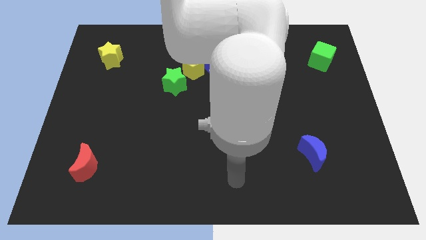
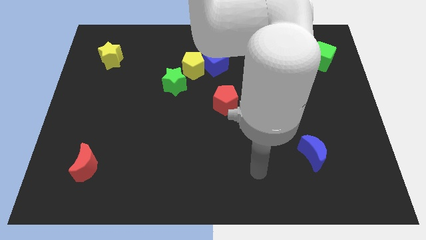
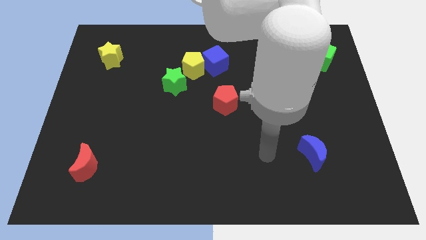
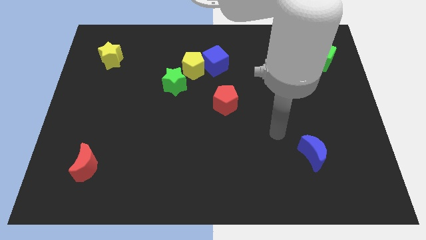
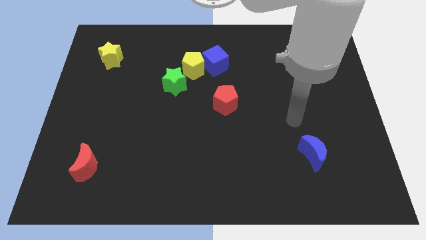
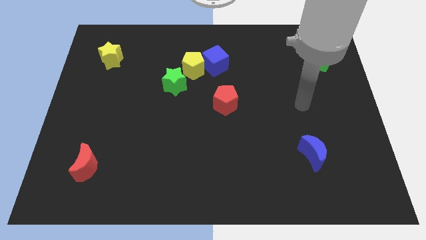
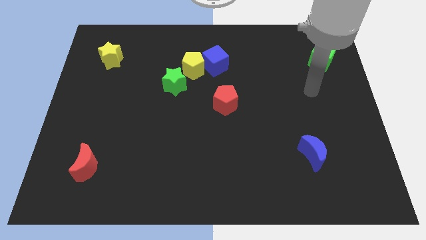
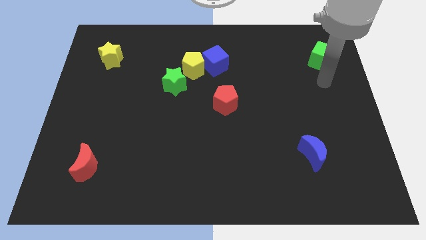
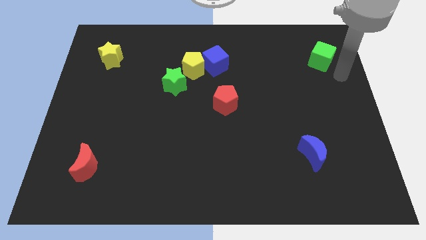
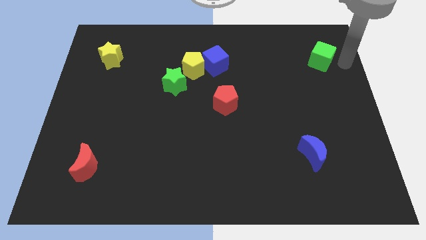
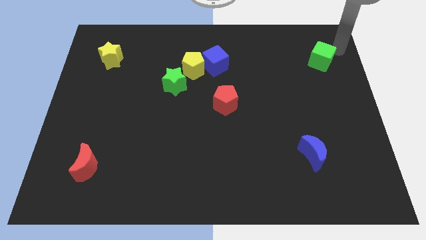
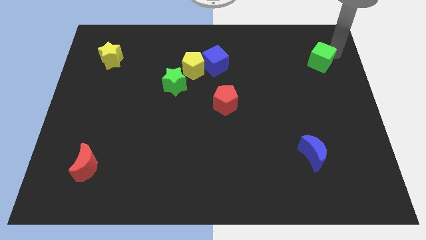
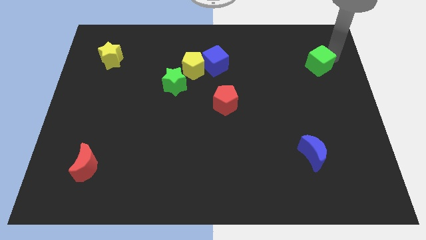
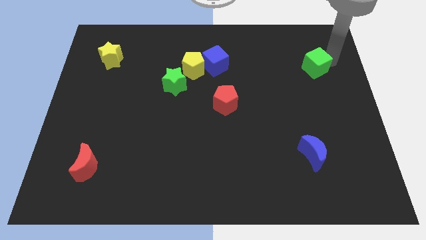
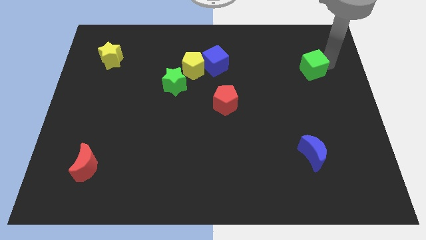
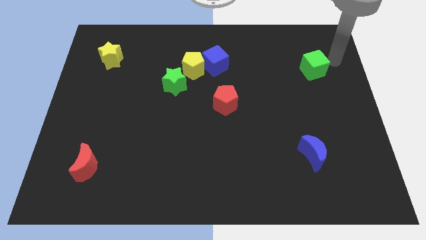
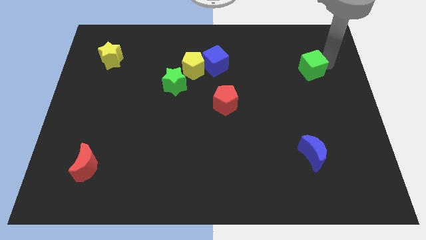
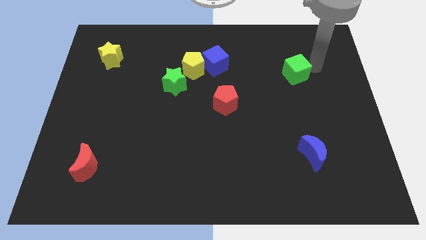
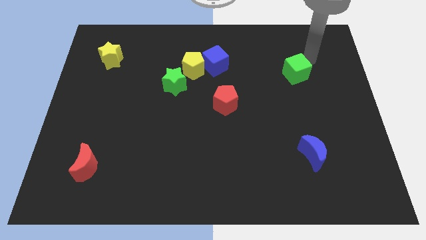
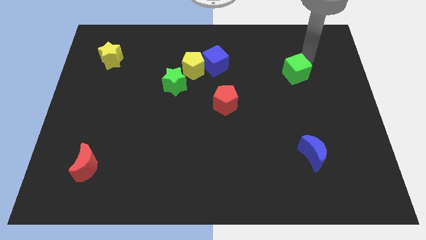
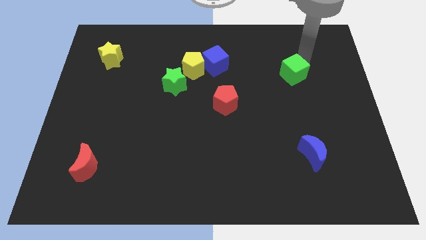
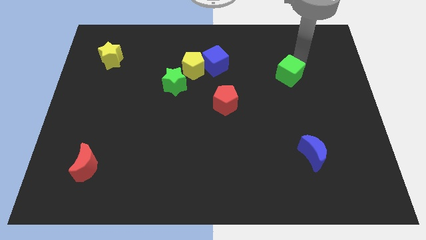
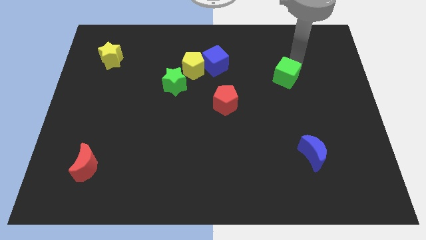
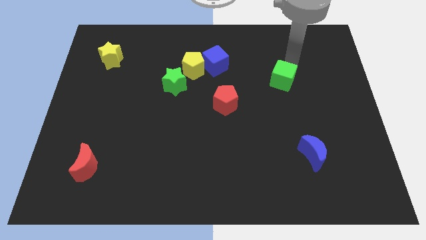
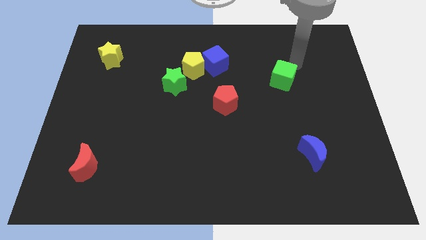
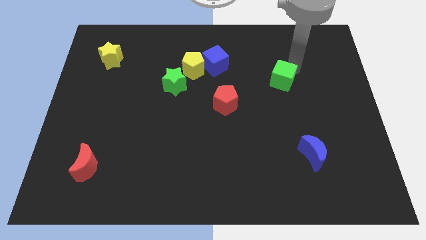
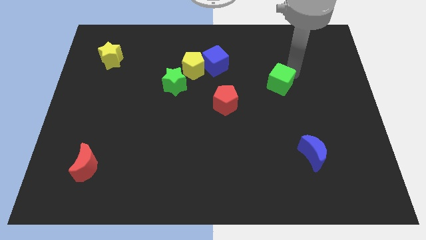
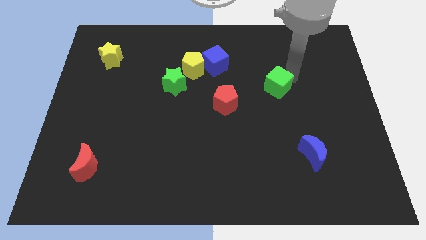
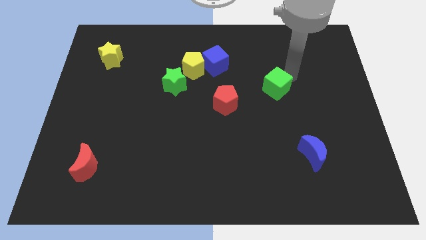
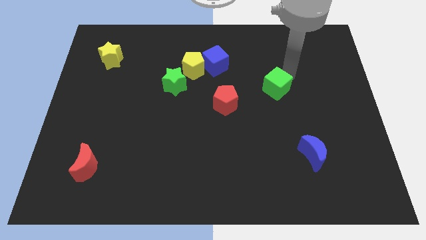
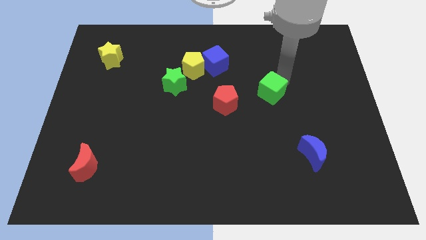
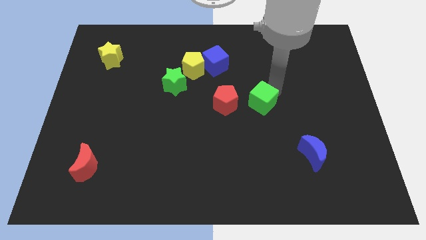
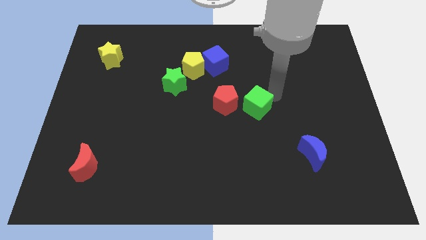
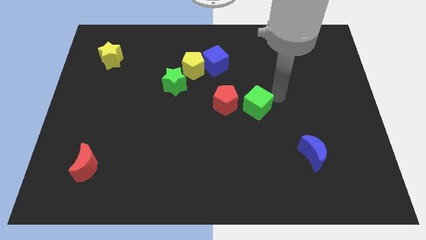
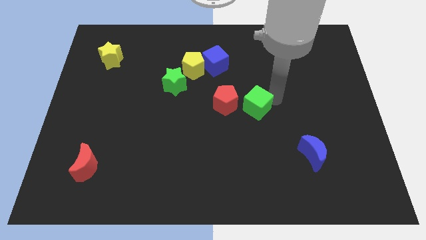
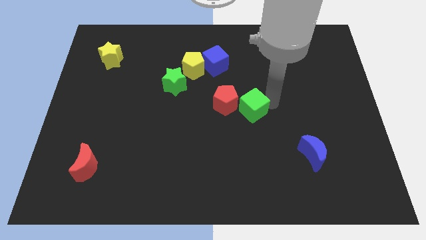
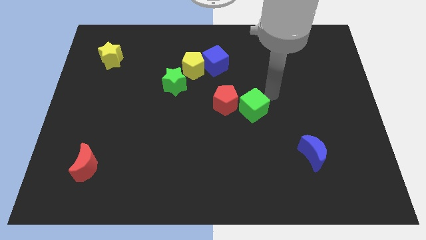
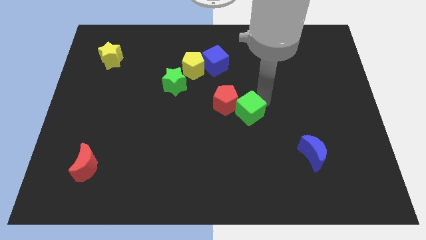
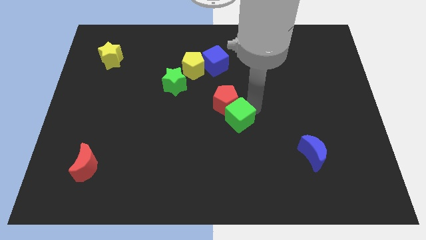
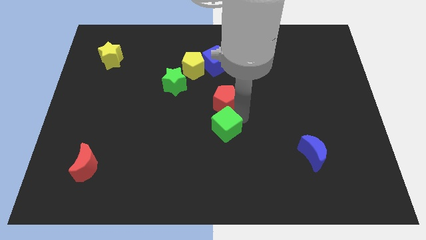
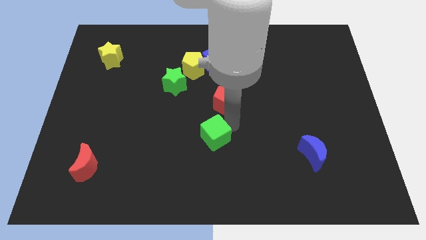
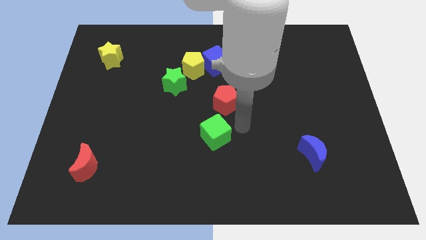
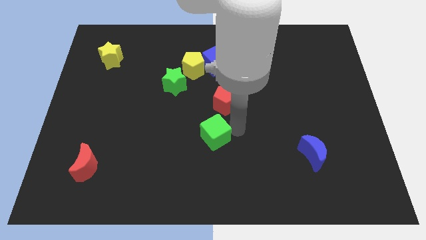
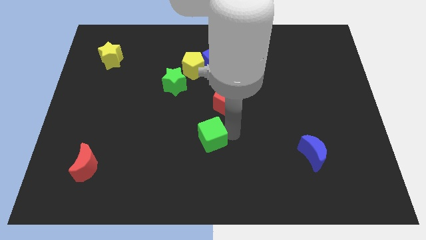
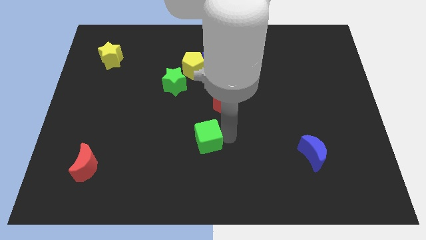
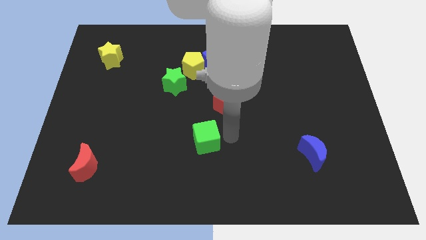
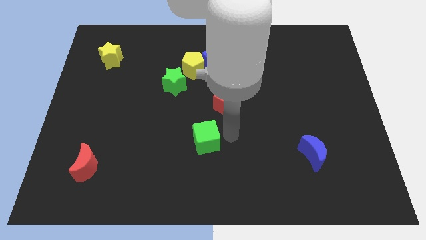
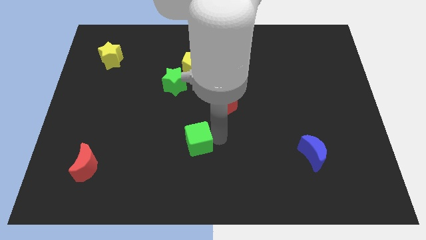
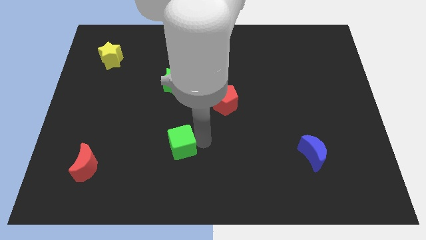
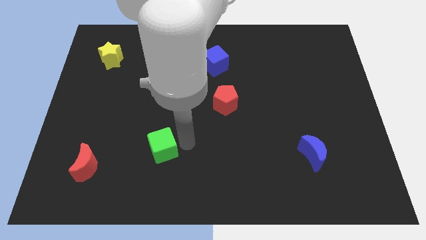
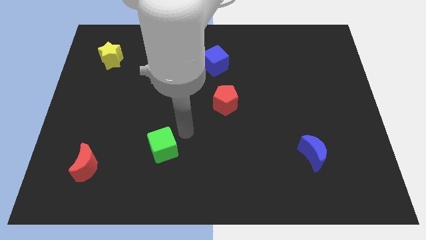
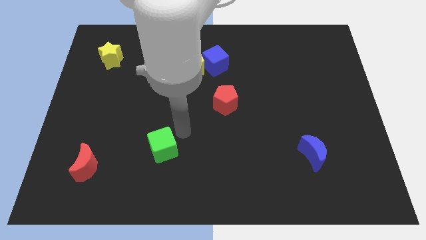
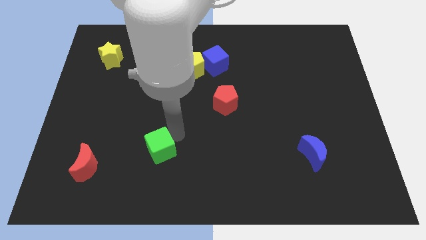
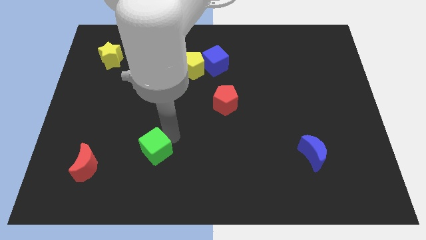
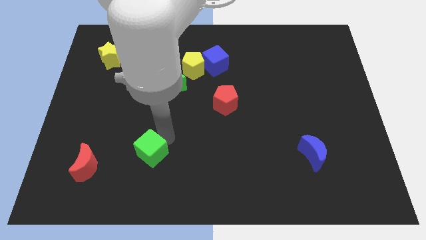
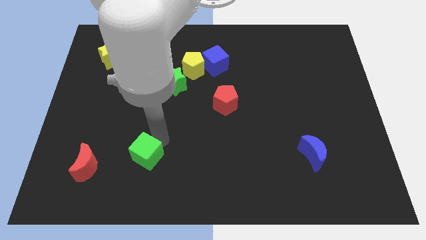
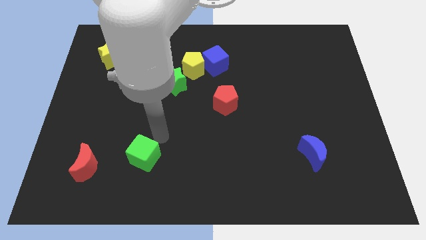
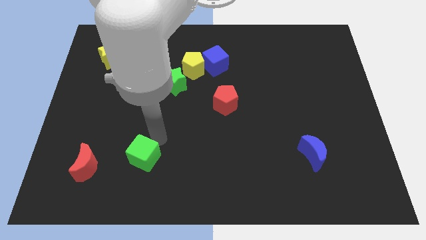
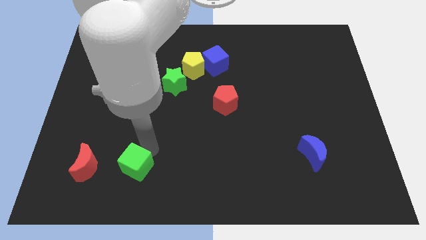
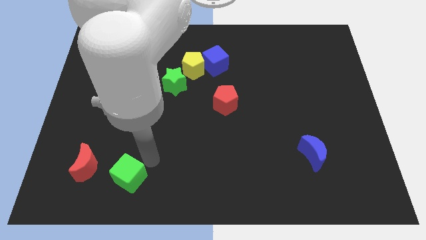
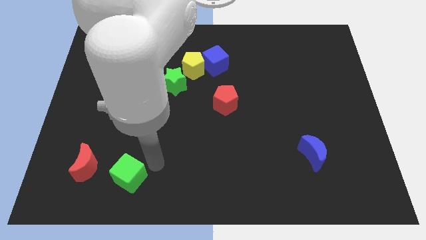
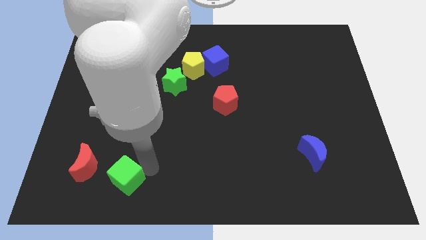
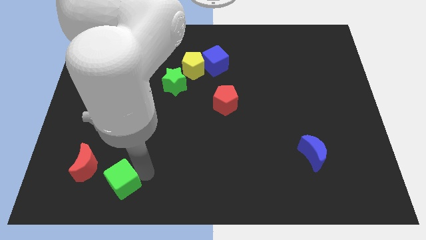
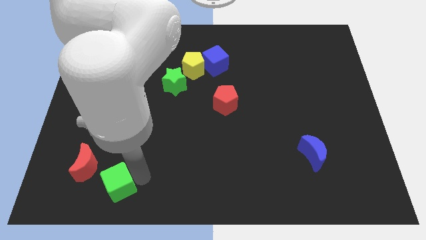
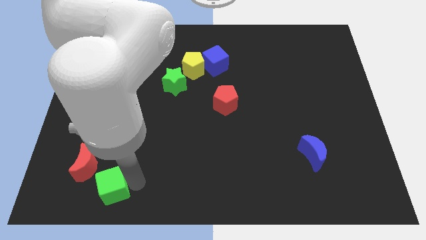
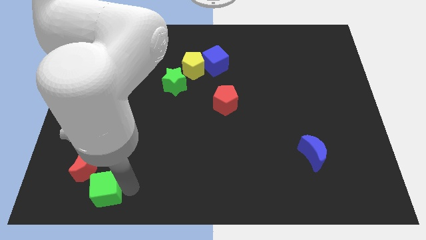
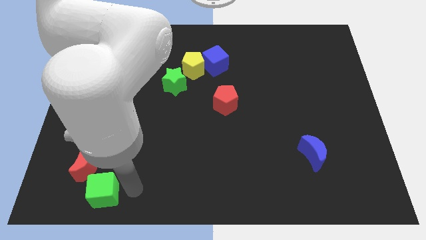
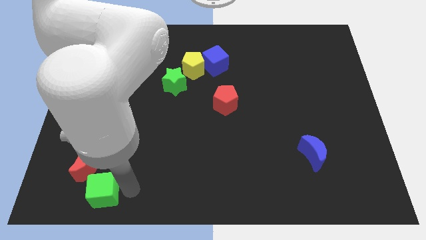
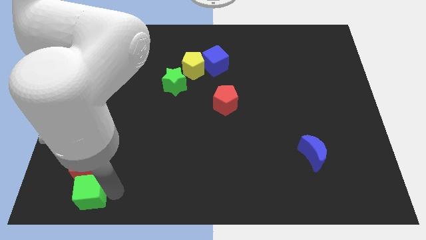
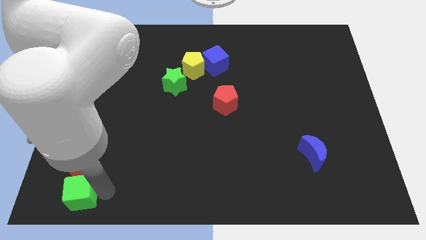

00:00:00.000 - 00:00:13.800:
put the green cube to the bottom left of the board
